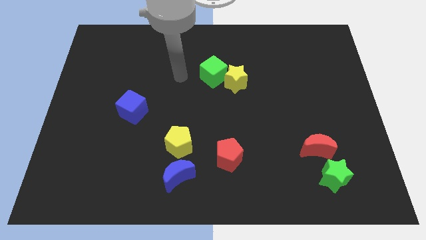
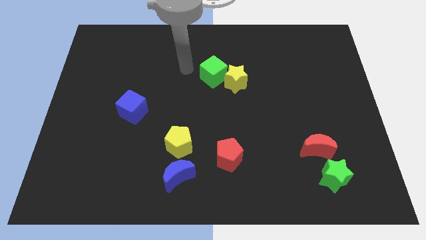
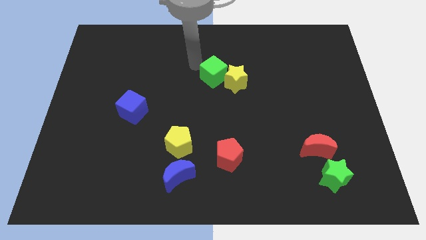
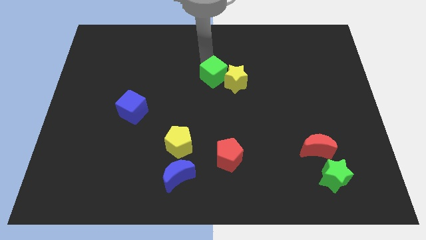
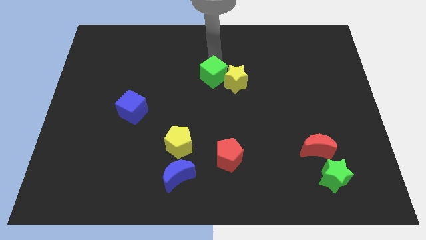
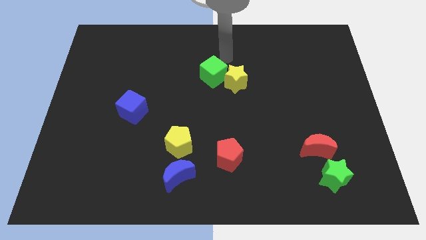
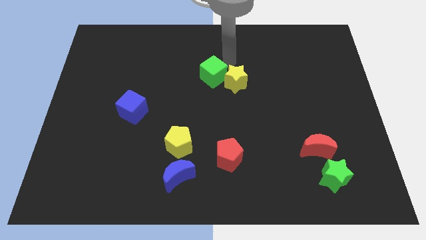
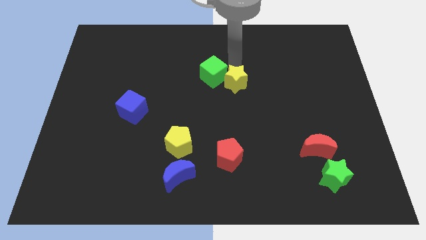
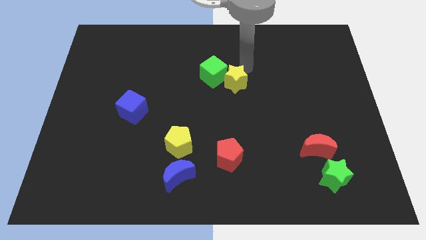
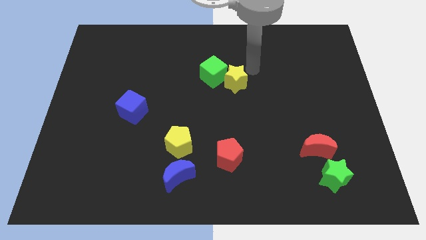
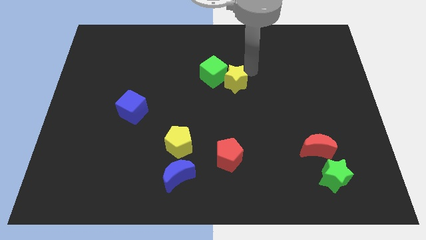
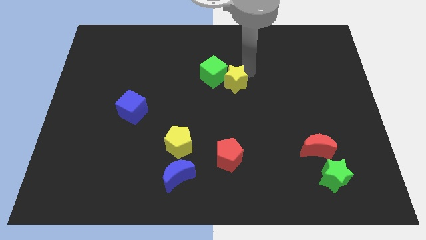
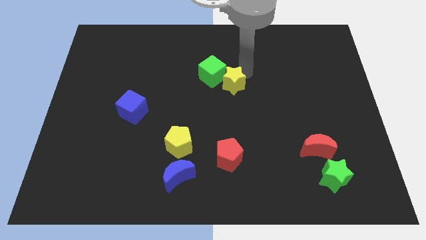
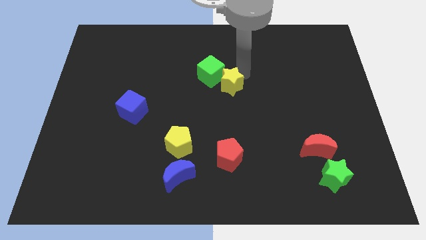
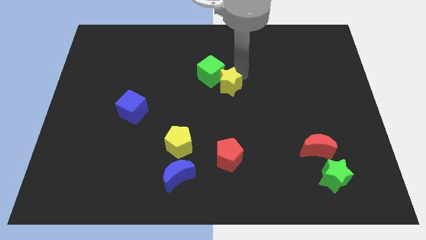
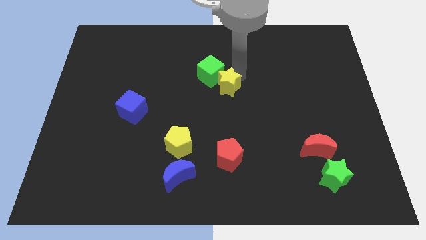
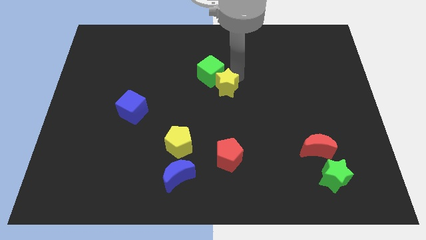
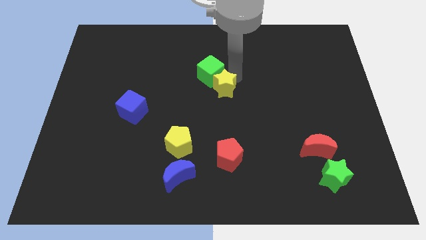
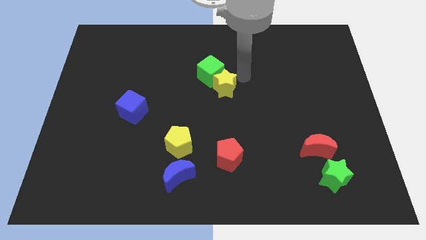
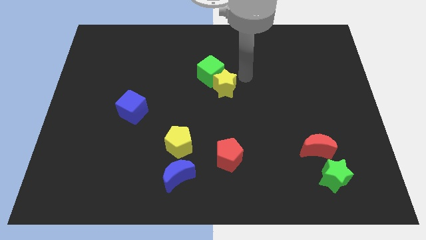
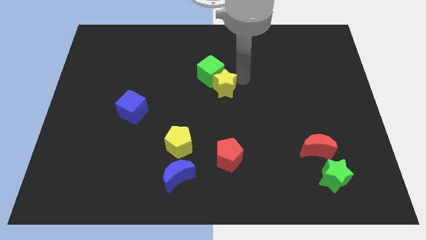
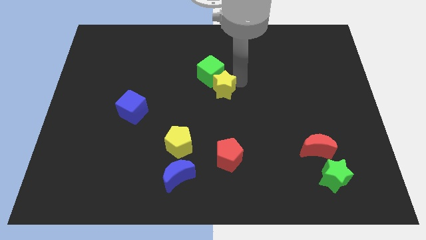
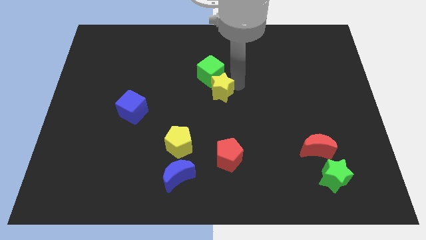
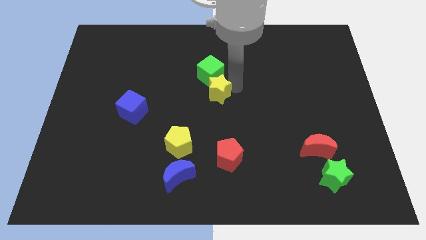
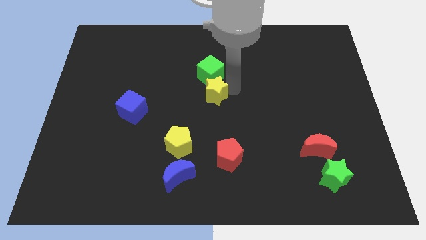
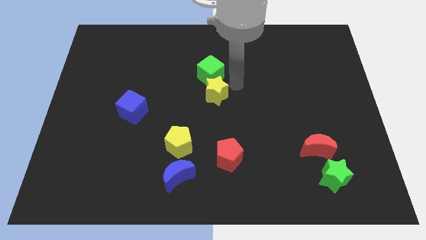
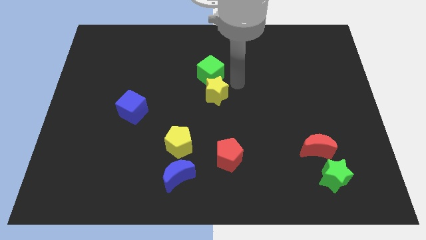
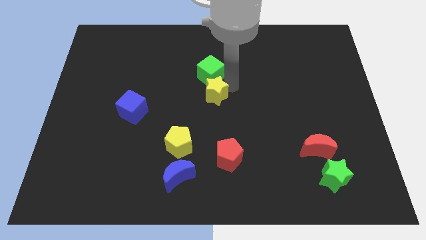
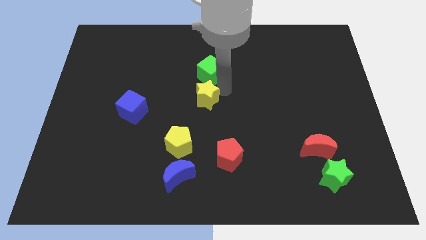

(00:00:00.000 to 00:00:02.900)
slightly move the yellow star diagonally down and to the left

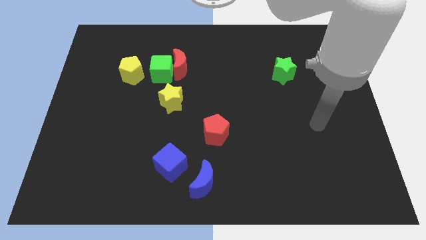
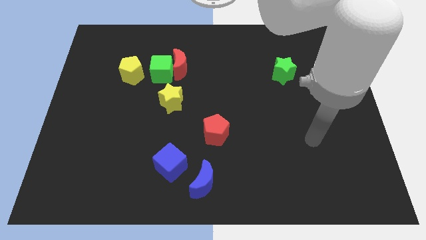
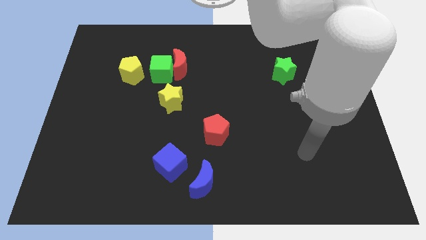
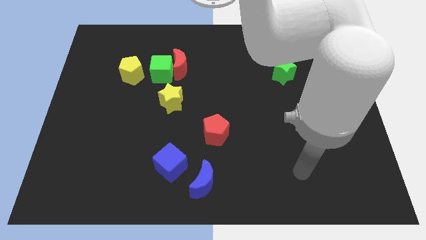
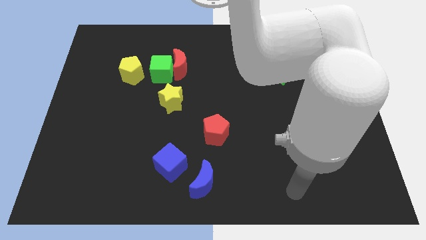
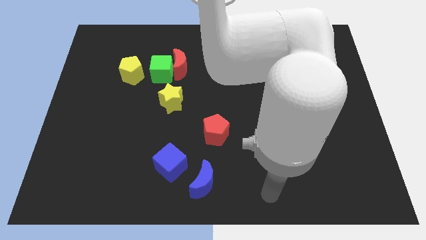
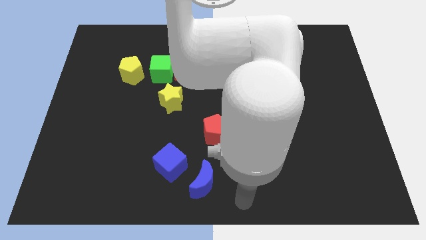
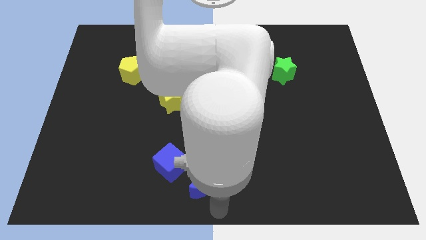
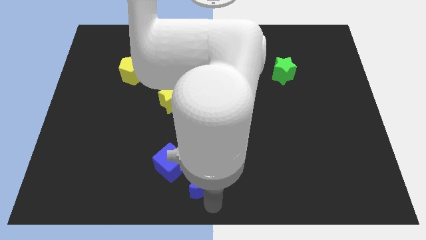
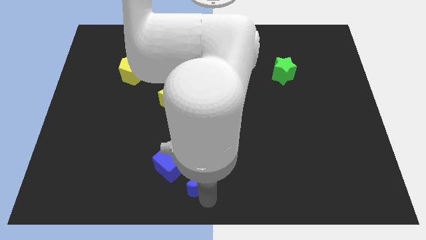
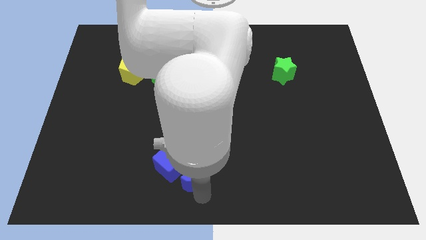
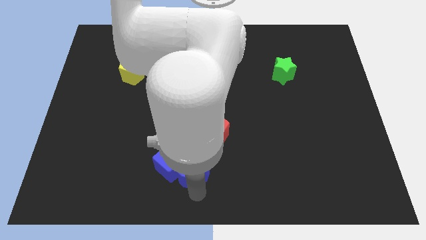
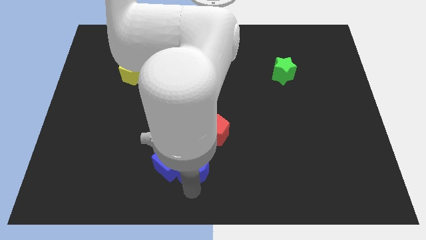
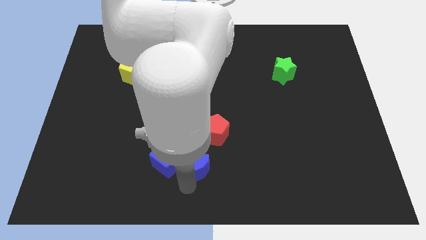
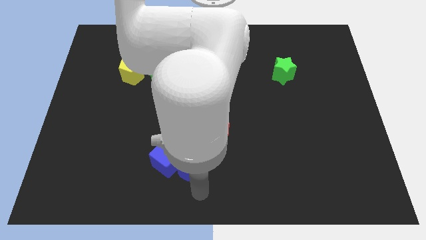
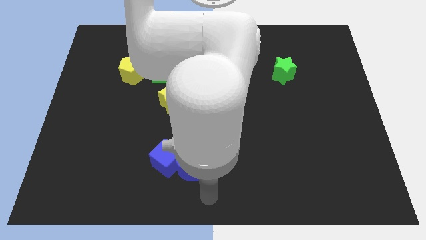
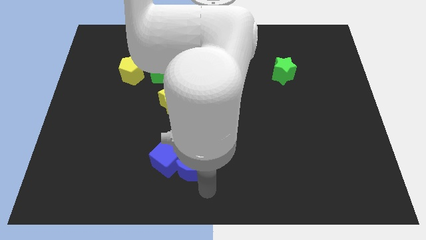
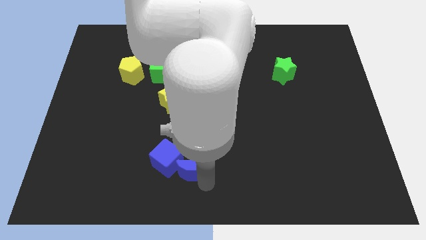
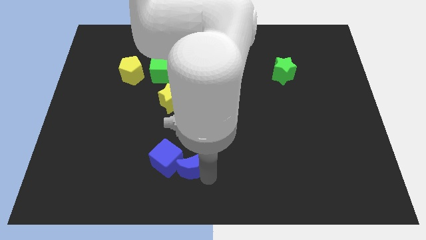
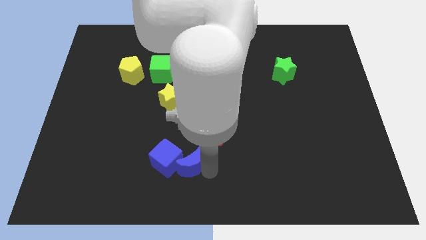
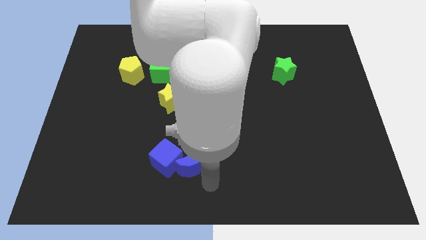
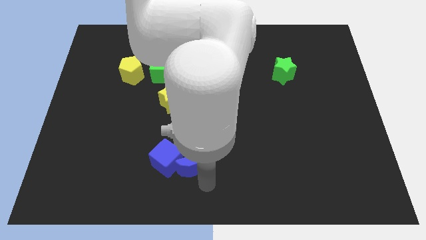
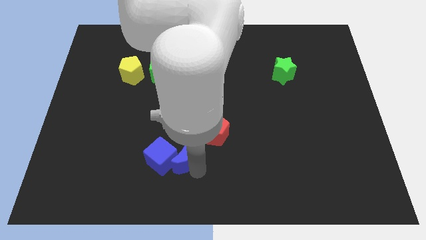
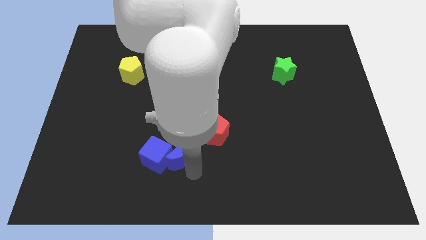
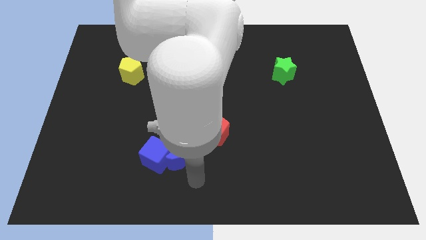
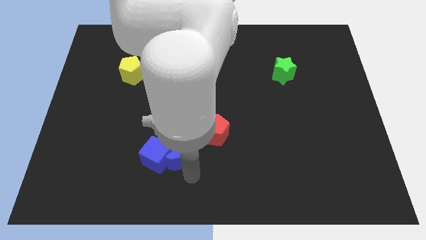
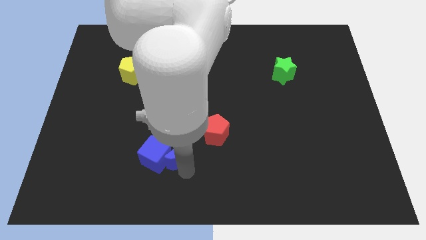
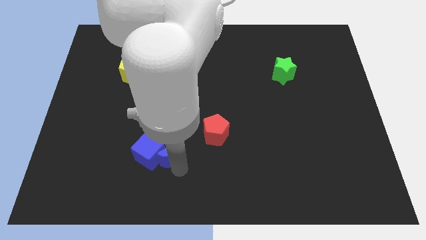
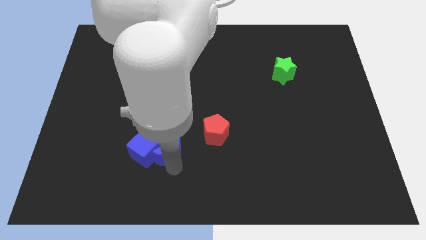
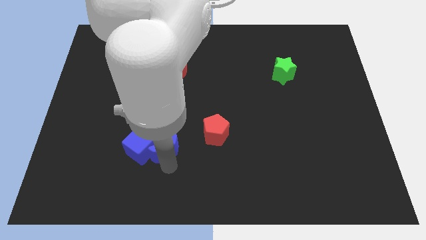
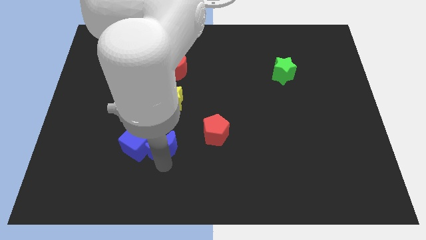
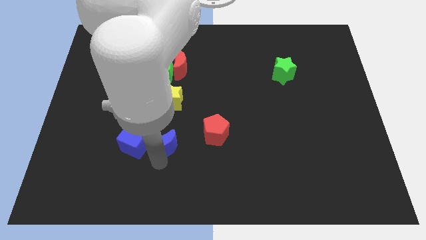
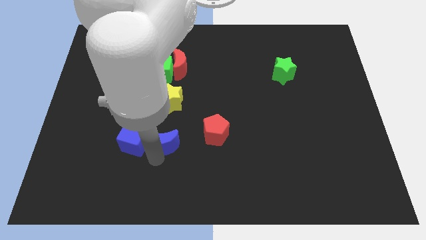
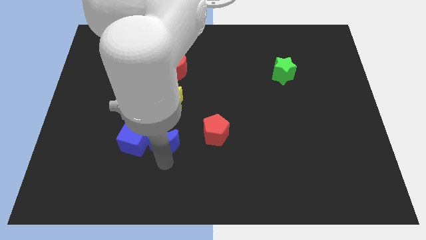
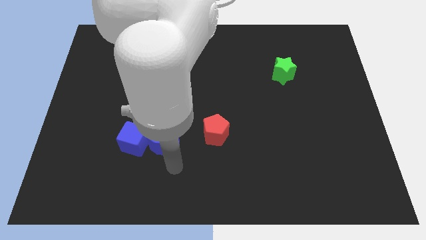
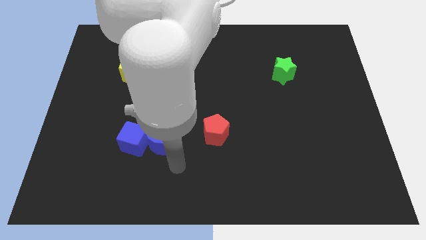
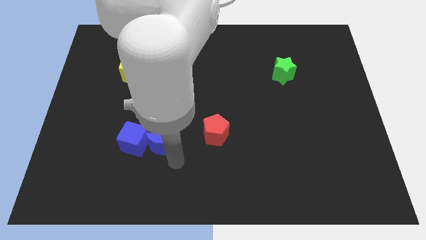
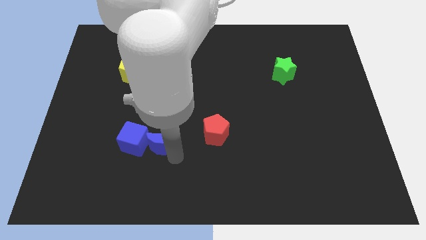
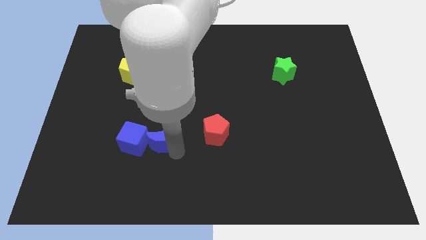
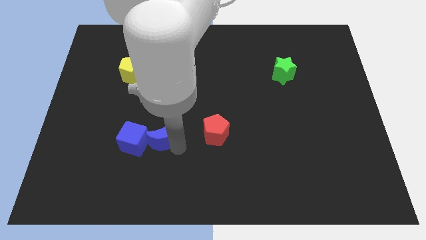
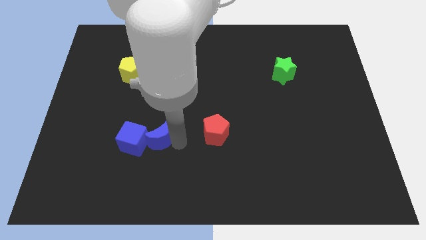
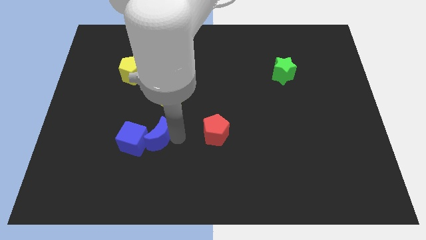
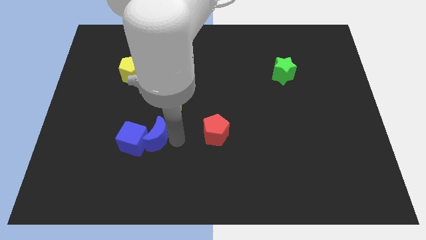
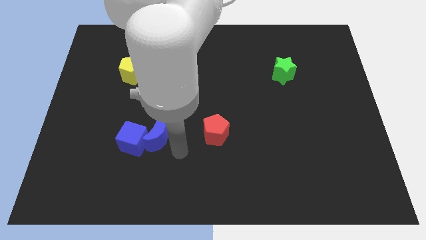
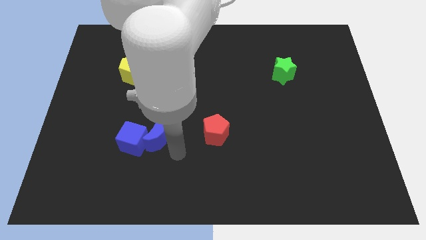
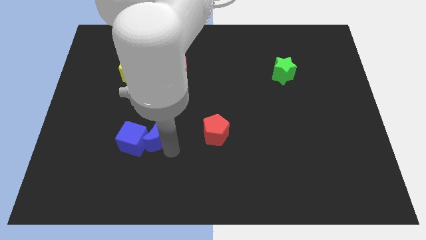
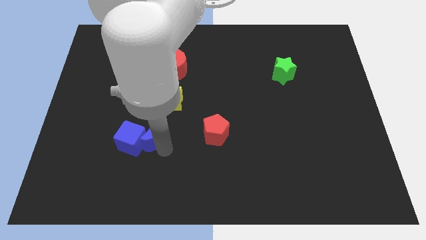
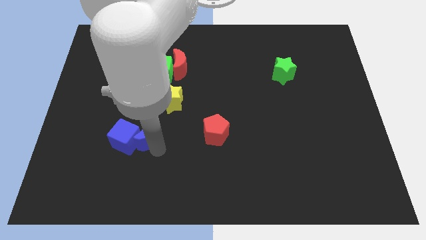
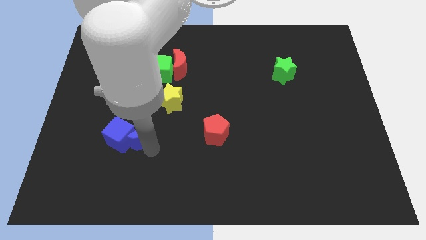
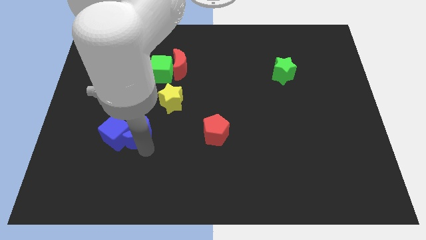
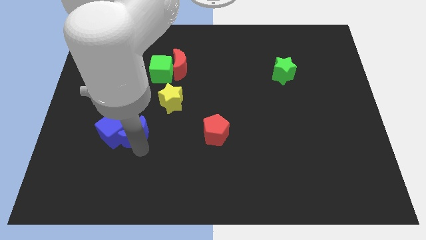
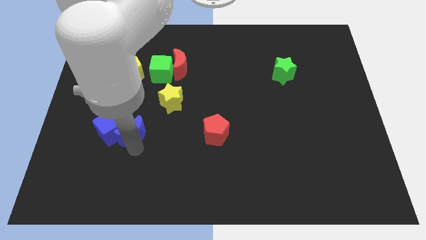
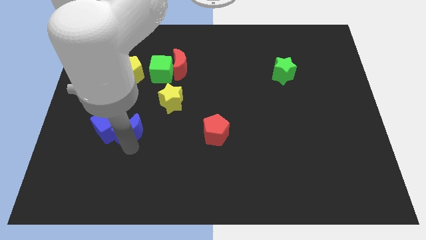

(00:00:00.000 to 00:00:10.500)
push the blue moon up and left
